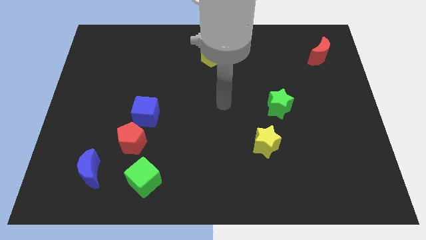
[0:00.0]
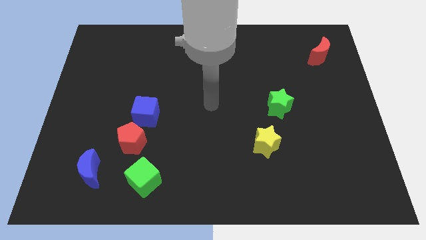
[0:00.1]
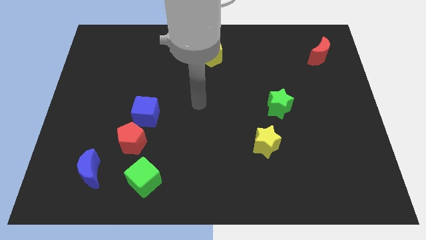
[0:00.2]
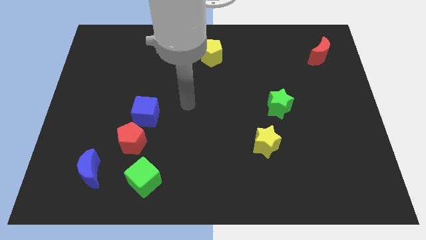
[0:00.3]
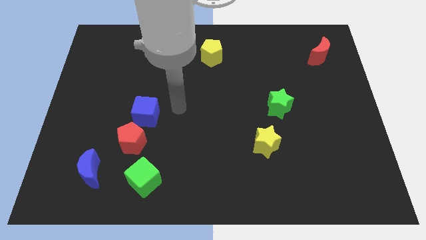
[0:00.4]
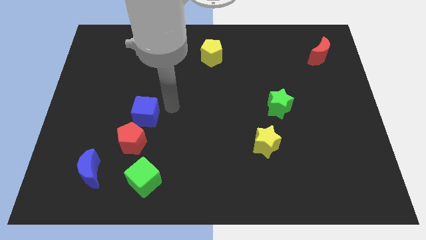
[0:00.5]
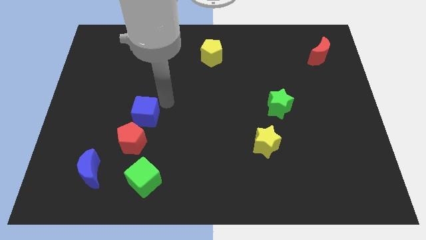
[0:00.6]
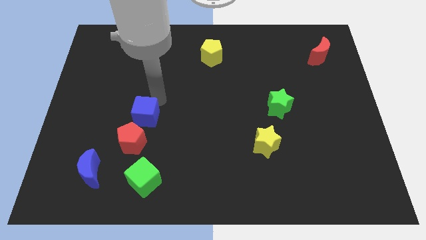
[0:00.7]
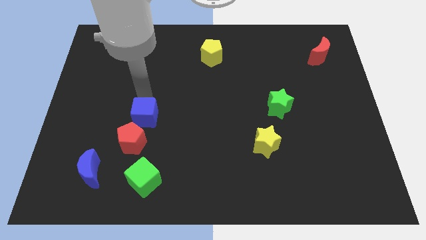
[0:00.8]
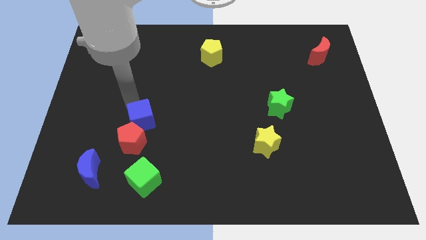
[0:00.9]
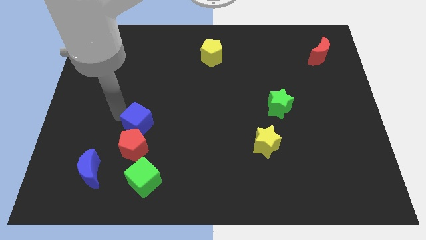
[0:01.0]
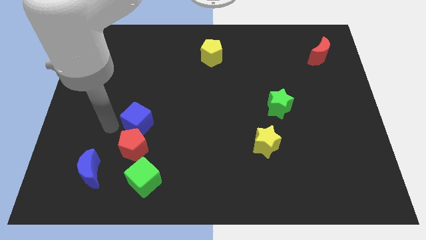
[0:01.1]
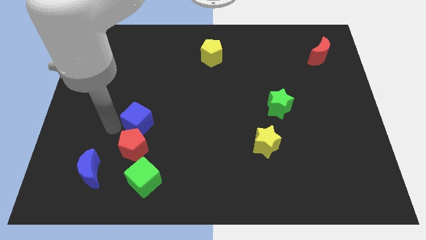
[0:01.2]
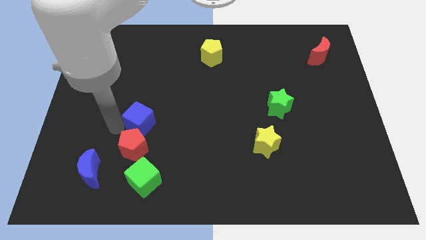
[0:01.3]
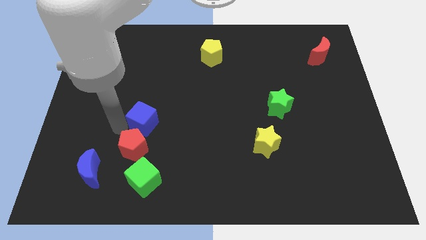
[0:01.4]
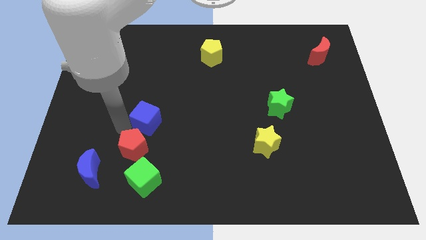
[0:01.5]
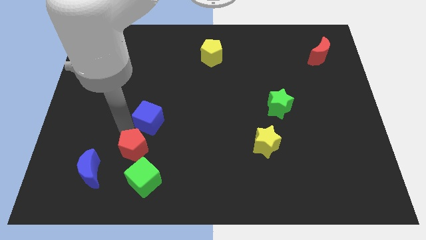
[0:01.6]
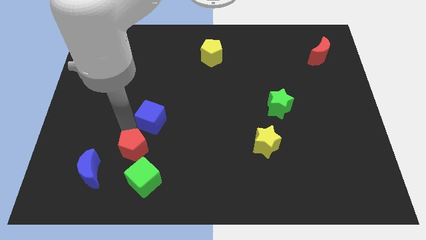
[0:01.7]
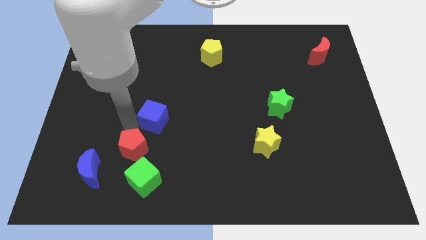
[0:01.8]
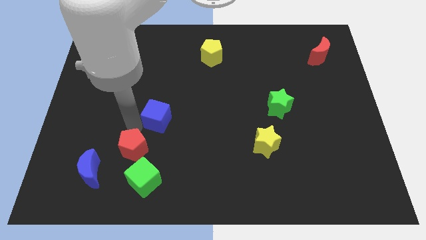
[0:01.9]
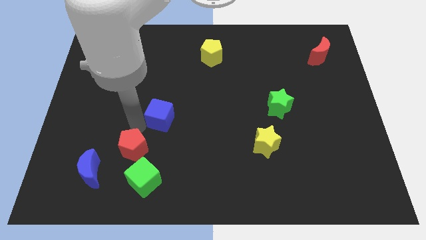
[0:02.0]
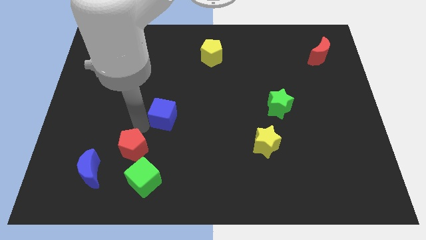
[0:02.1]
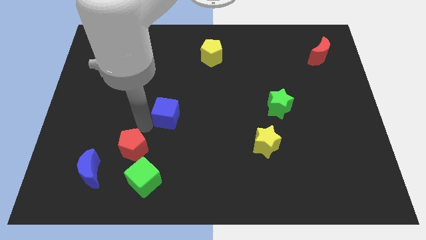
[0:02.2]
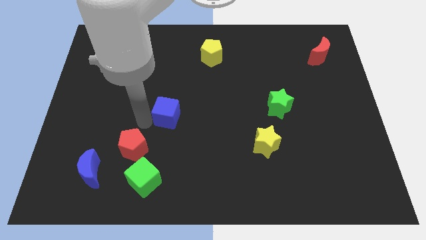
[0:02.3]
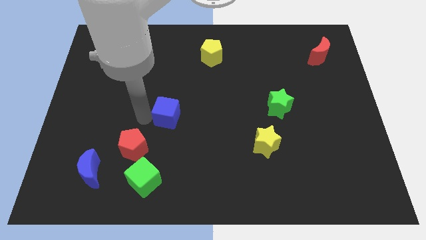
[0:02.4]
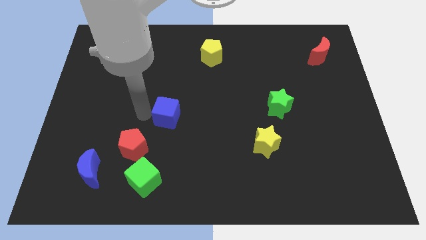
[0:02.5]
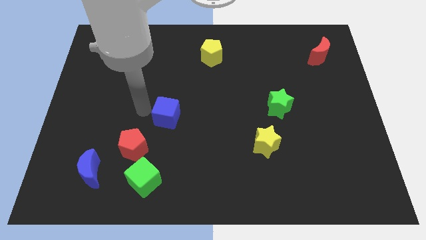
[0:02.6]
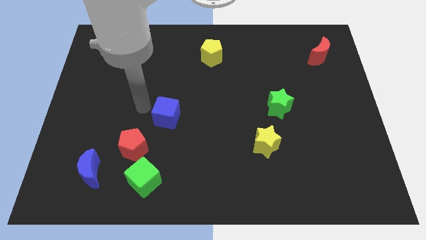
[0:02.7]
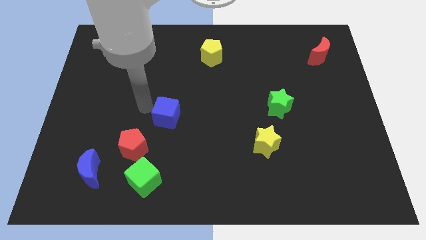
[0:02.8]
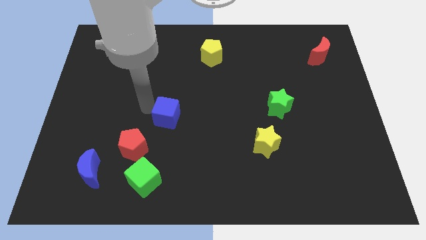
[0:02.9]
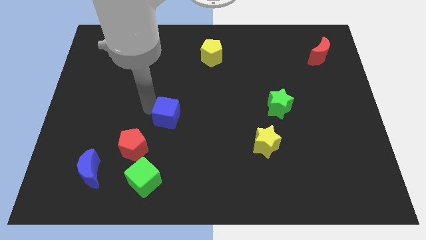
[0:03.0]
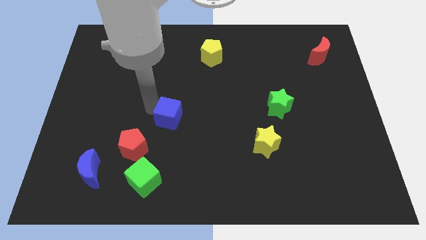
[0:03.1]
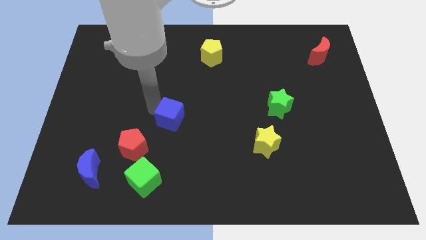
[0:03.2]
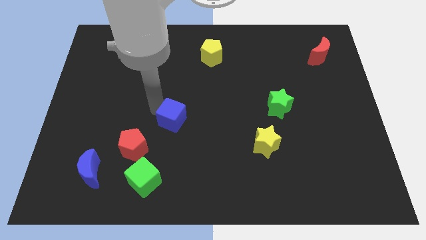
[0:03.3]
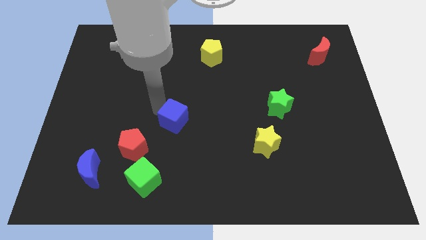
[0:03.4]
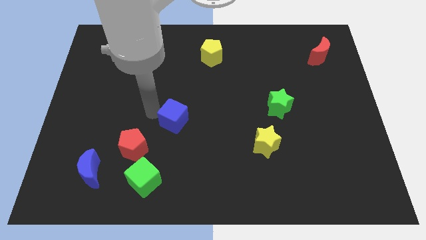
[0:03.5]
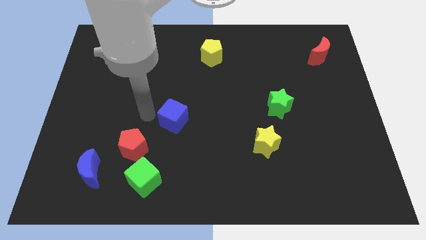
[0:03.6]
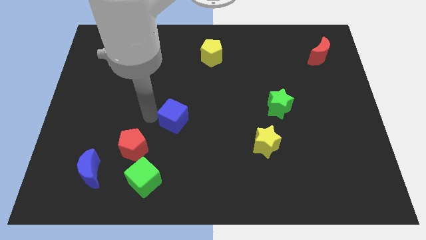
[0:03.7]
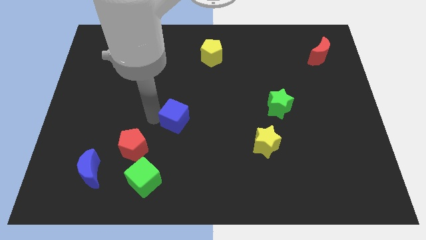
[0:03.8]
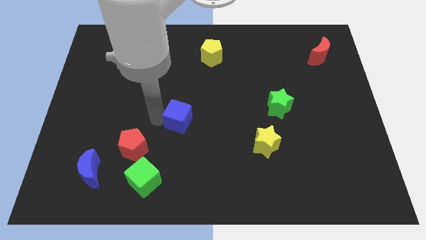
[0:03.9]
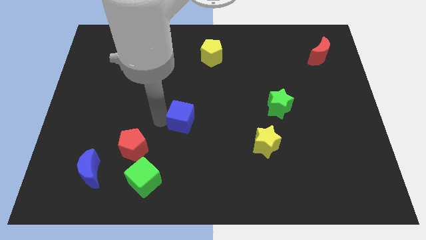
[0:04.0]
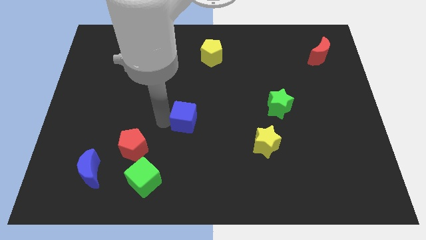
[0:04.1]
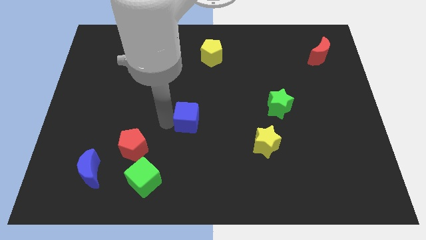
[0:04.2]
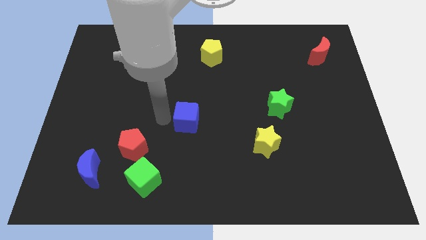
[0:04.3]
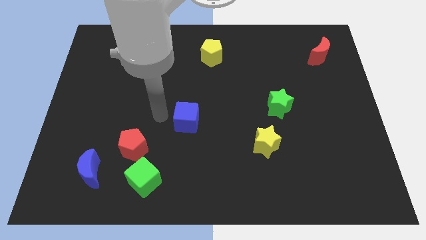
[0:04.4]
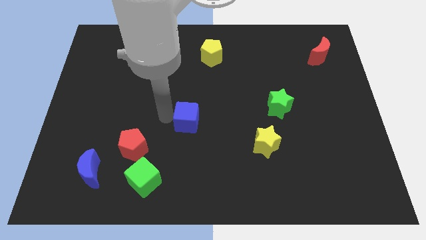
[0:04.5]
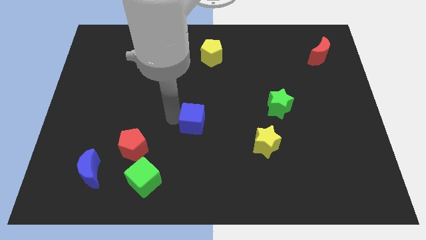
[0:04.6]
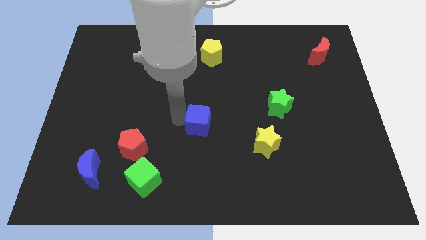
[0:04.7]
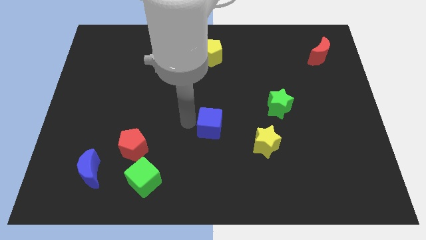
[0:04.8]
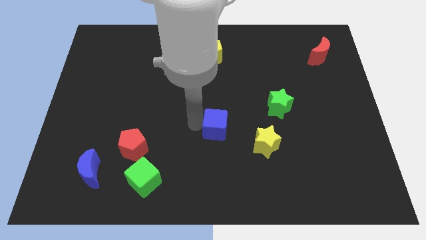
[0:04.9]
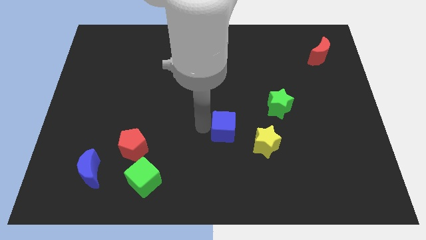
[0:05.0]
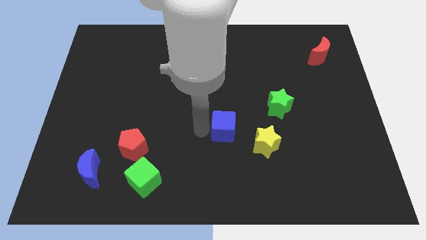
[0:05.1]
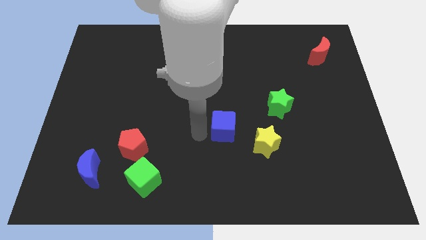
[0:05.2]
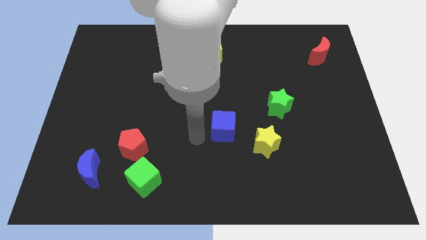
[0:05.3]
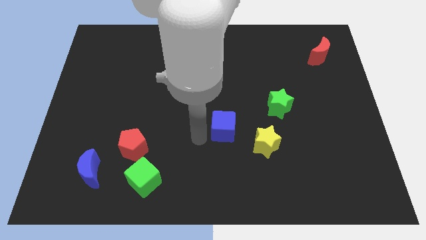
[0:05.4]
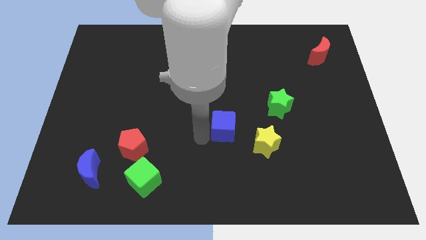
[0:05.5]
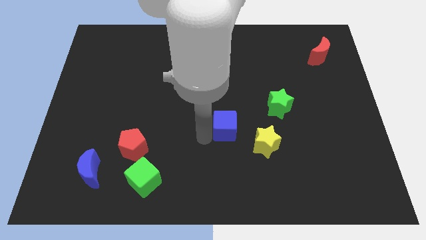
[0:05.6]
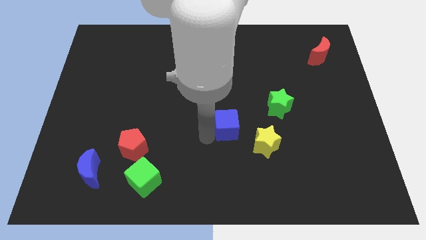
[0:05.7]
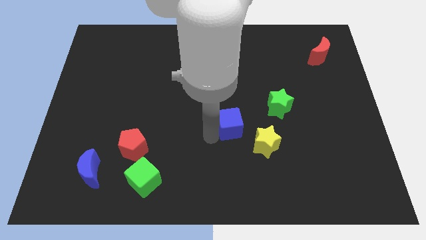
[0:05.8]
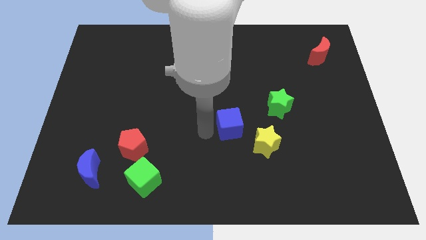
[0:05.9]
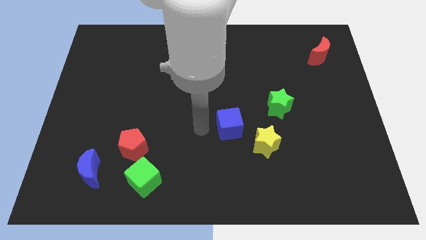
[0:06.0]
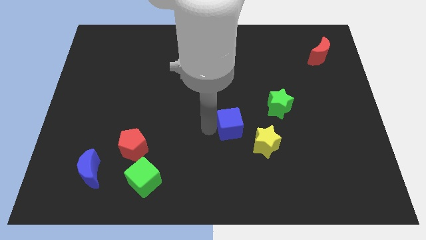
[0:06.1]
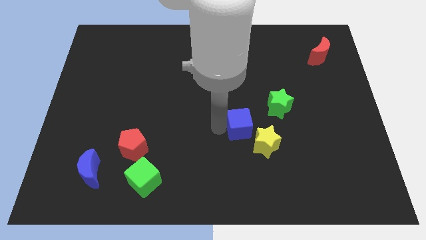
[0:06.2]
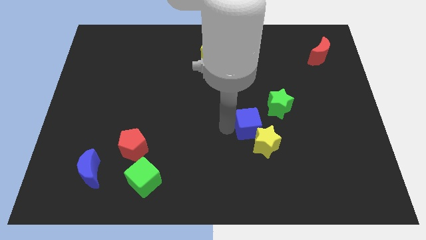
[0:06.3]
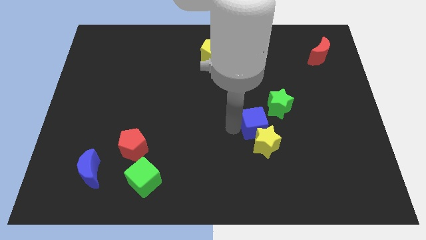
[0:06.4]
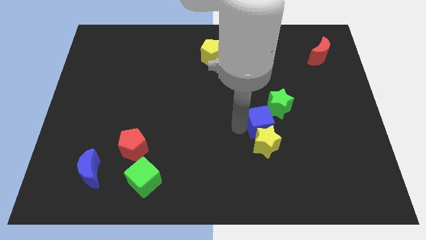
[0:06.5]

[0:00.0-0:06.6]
move the blue cube to the bottom of the green star

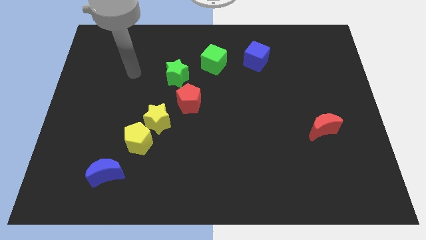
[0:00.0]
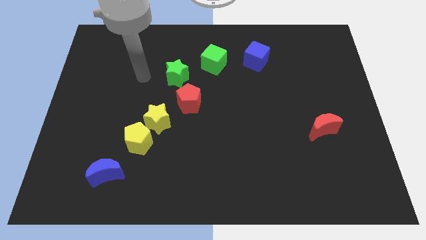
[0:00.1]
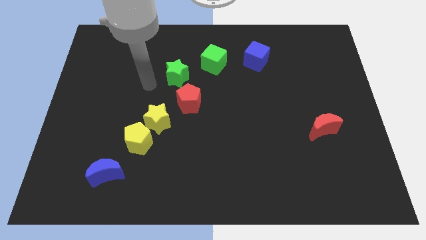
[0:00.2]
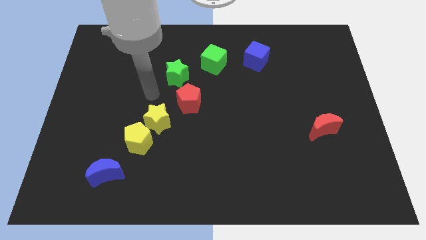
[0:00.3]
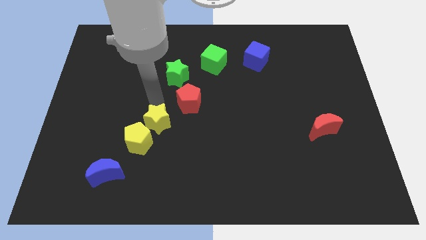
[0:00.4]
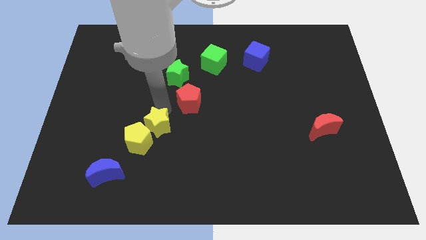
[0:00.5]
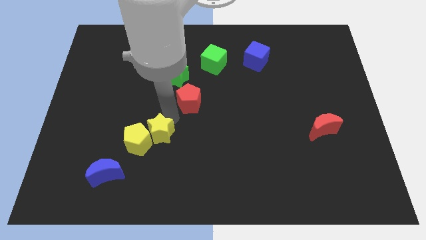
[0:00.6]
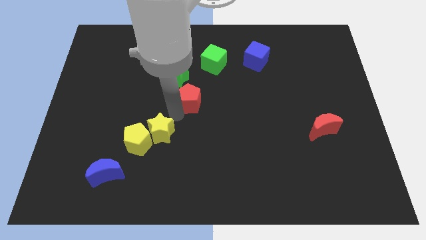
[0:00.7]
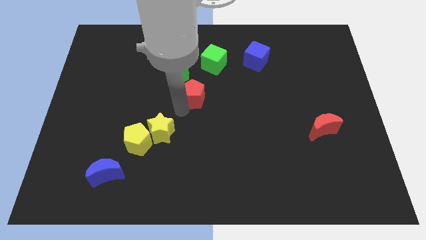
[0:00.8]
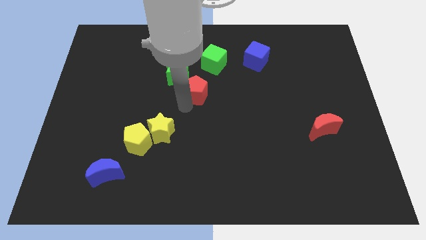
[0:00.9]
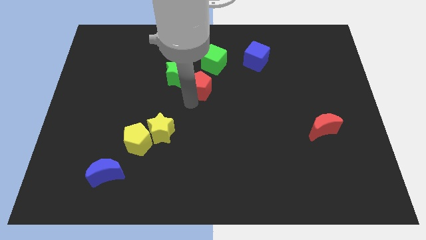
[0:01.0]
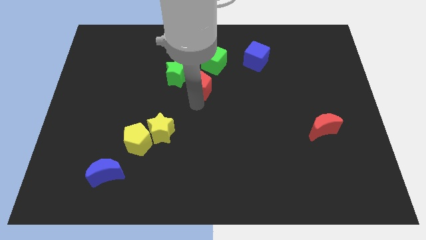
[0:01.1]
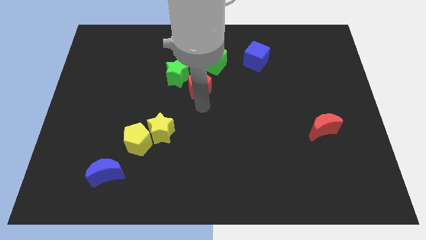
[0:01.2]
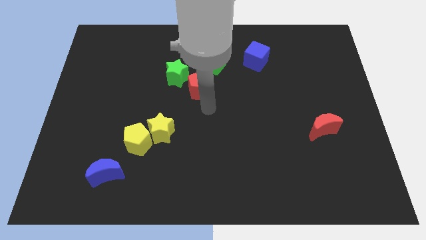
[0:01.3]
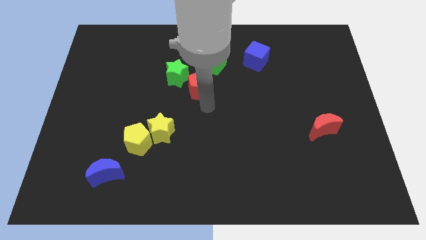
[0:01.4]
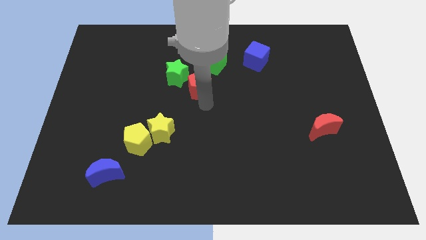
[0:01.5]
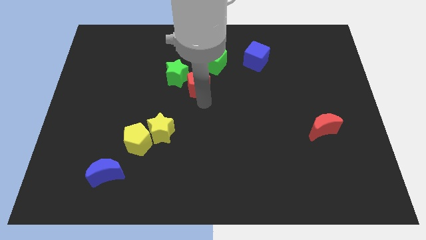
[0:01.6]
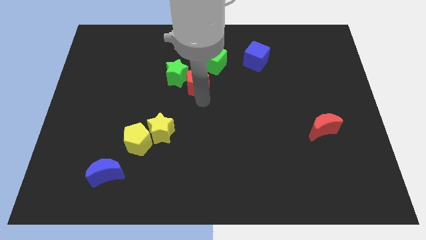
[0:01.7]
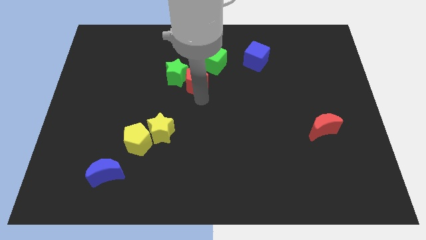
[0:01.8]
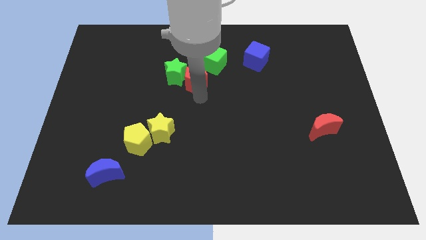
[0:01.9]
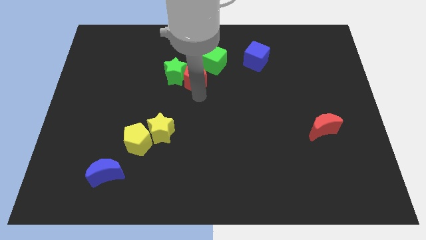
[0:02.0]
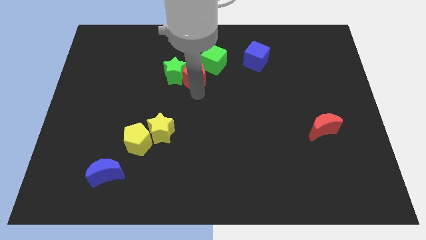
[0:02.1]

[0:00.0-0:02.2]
slide the red pentagon diagonally up and to the right of the green star
